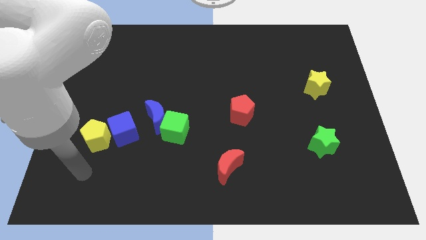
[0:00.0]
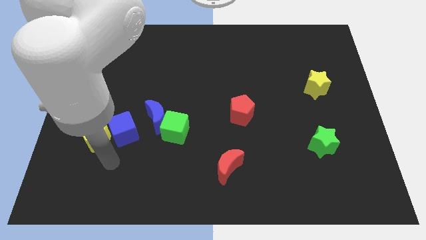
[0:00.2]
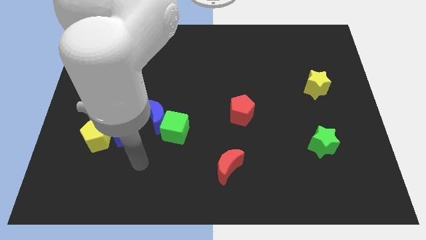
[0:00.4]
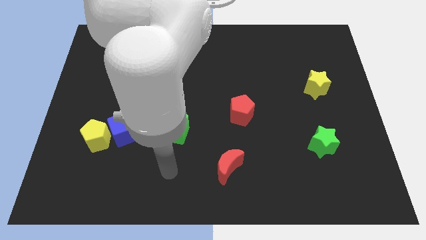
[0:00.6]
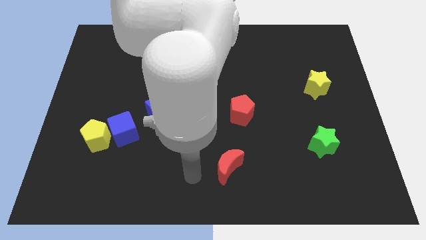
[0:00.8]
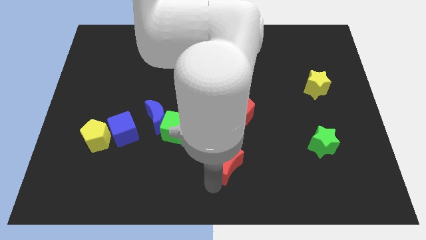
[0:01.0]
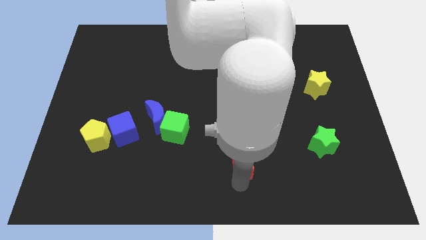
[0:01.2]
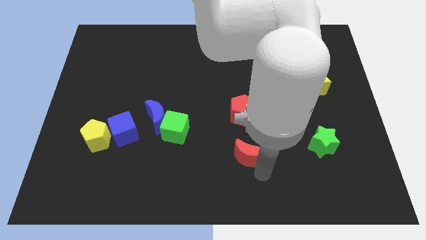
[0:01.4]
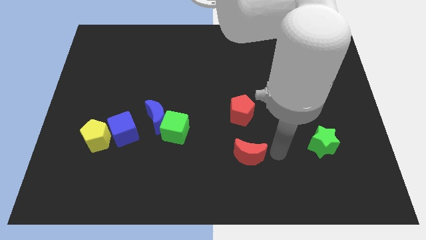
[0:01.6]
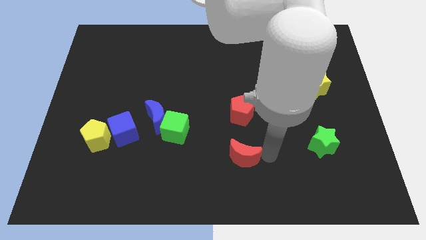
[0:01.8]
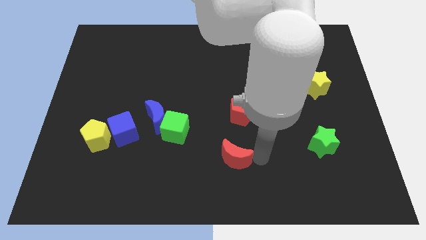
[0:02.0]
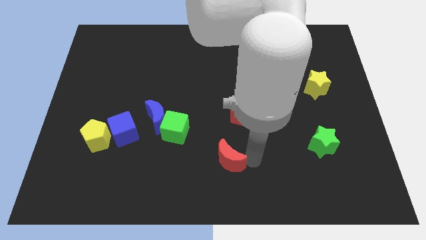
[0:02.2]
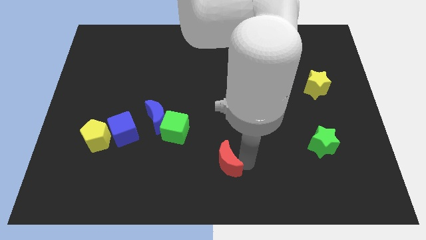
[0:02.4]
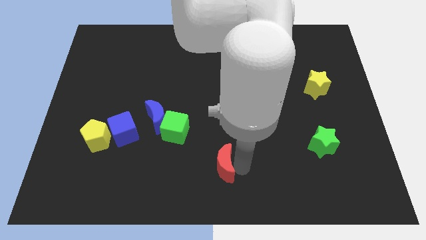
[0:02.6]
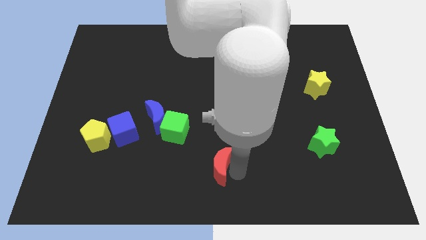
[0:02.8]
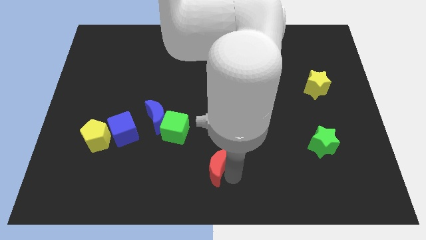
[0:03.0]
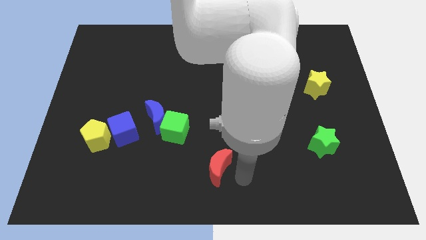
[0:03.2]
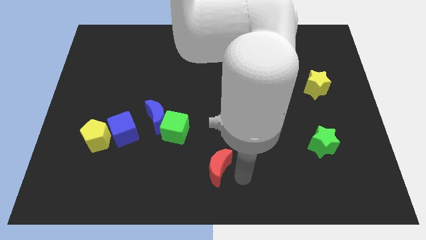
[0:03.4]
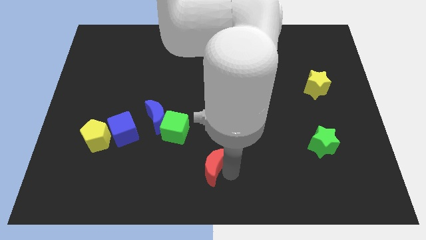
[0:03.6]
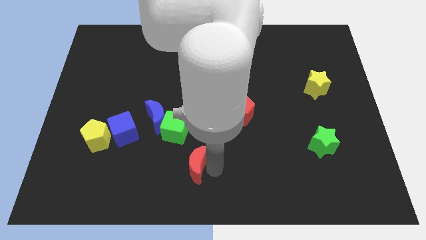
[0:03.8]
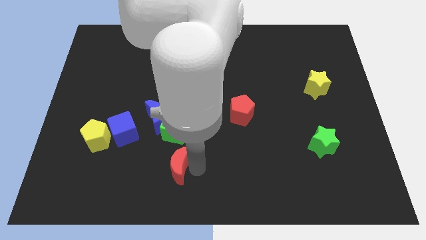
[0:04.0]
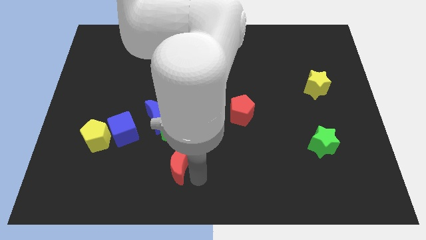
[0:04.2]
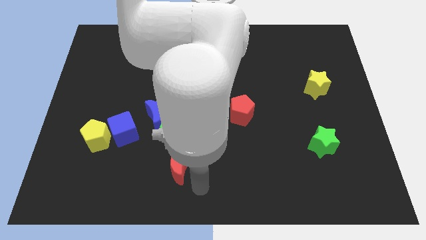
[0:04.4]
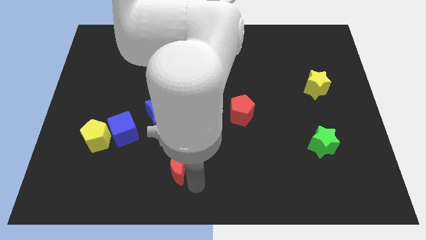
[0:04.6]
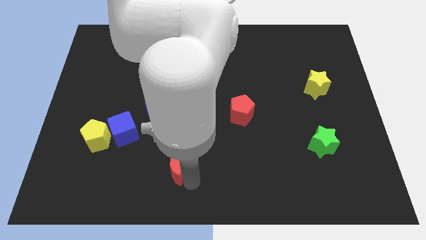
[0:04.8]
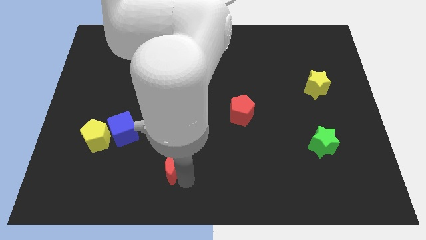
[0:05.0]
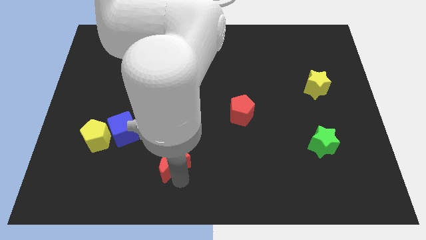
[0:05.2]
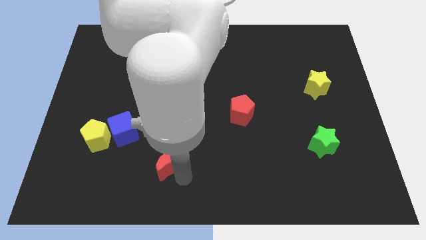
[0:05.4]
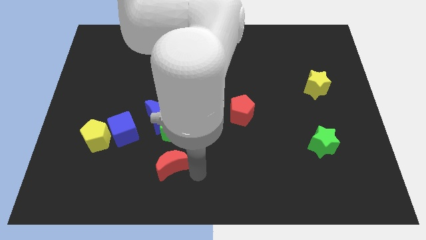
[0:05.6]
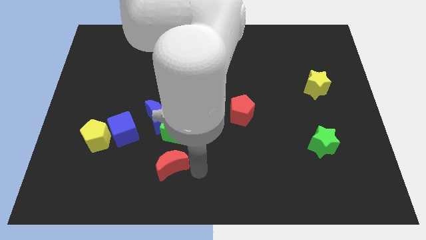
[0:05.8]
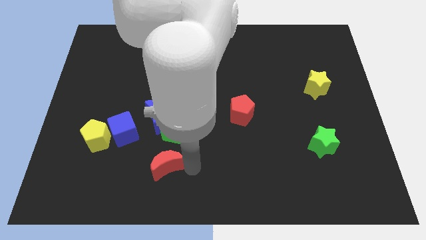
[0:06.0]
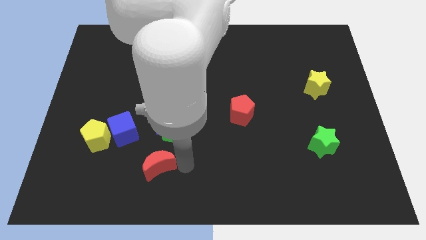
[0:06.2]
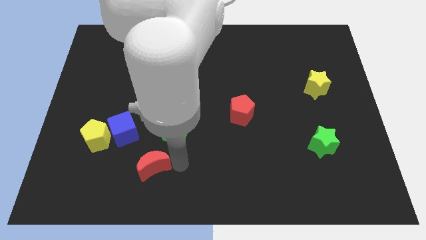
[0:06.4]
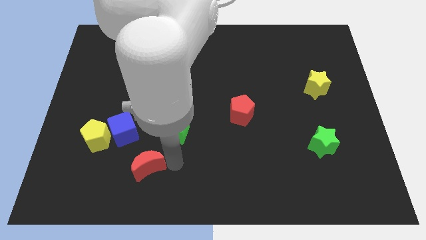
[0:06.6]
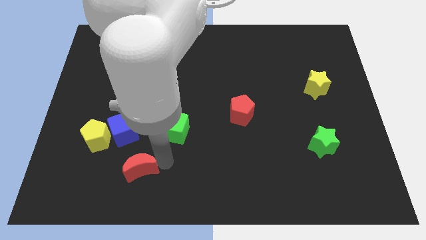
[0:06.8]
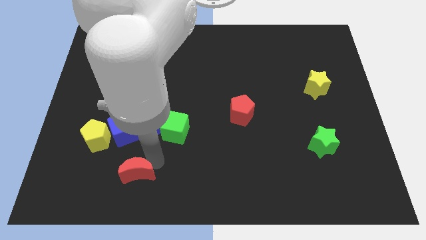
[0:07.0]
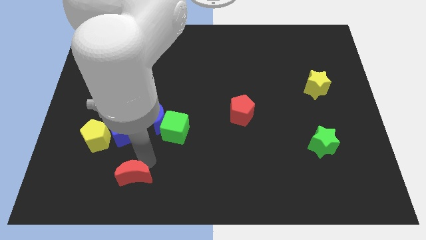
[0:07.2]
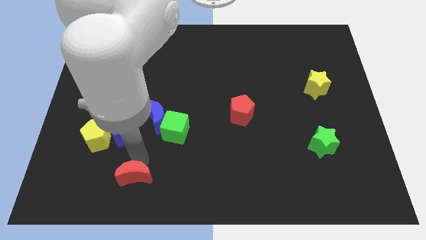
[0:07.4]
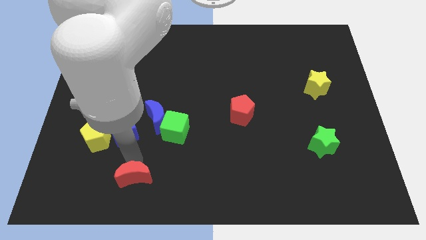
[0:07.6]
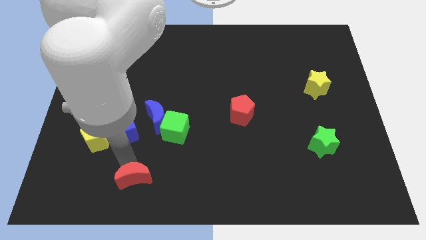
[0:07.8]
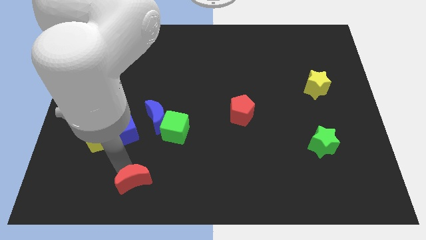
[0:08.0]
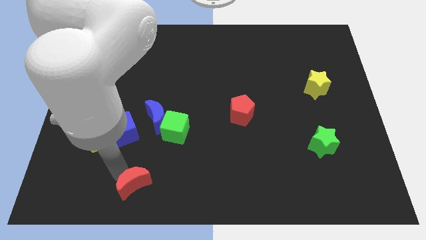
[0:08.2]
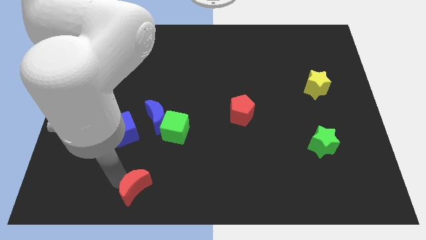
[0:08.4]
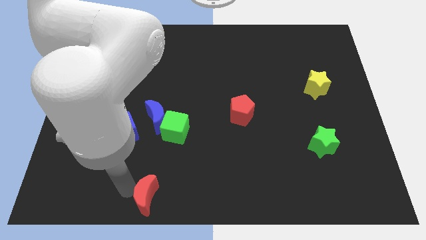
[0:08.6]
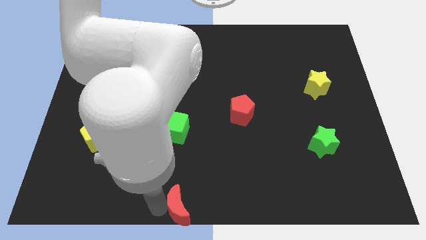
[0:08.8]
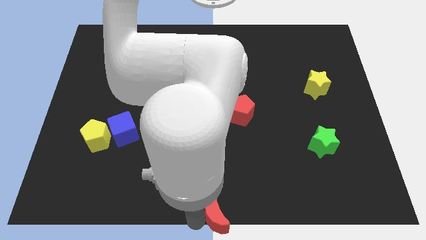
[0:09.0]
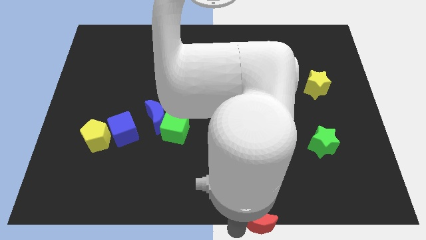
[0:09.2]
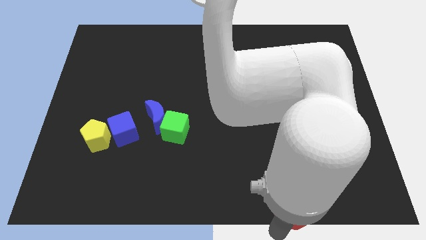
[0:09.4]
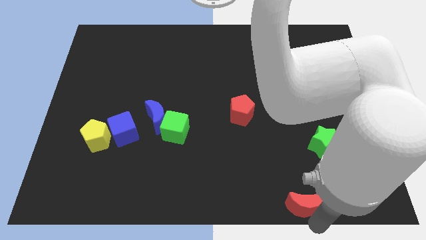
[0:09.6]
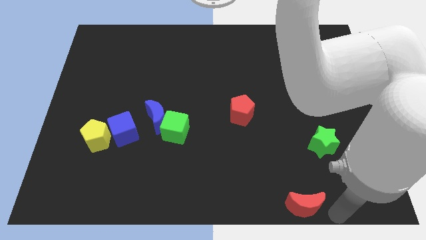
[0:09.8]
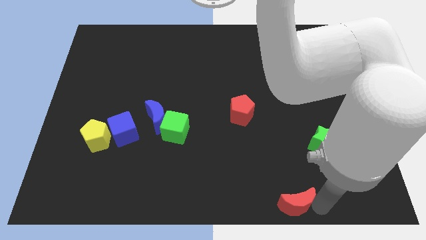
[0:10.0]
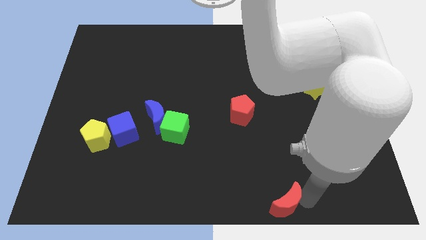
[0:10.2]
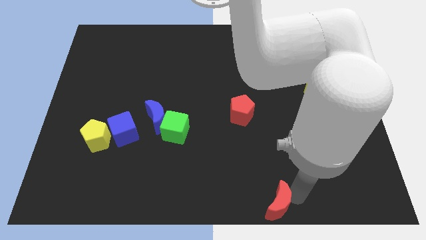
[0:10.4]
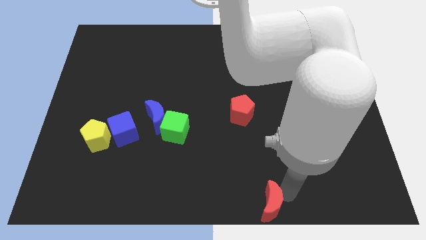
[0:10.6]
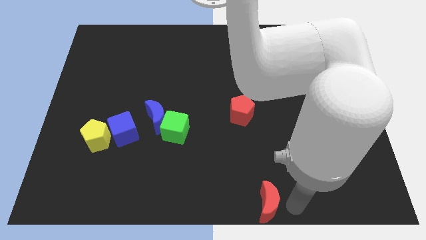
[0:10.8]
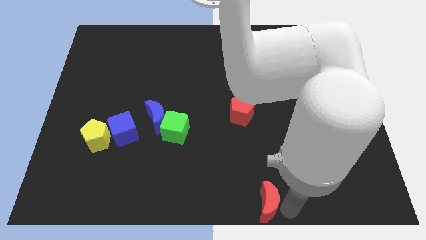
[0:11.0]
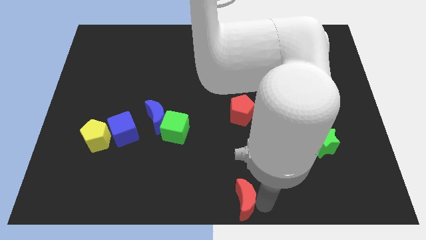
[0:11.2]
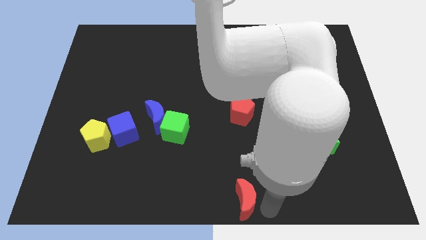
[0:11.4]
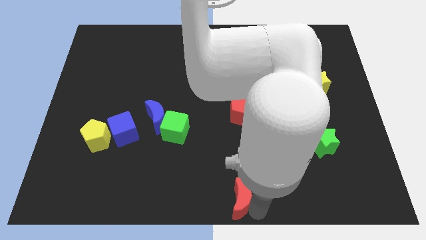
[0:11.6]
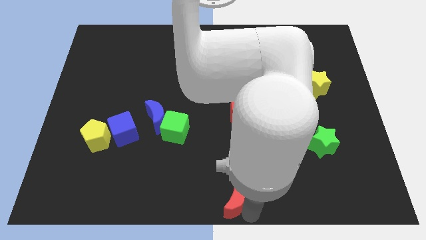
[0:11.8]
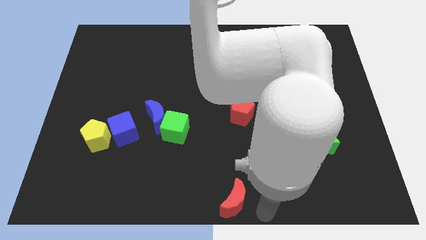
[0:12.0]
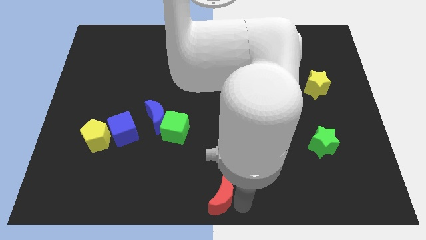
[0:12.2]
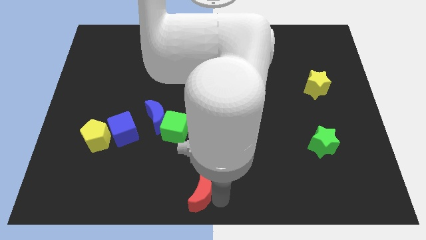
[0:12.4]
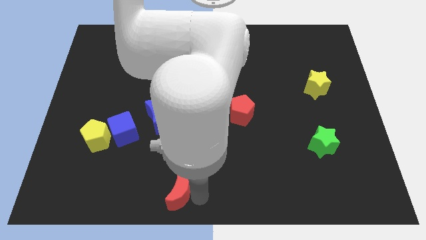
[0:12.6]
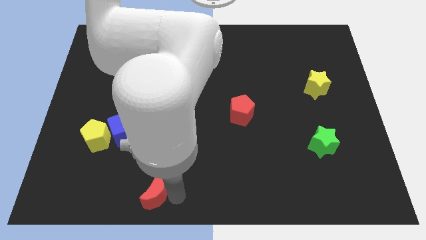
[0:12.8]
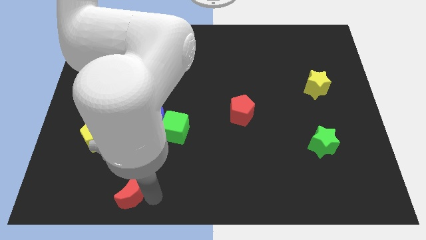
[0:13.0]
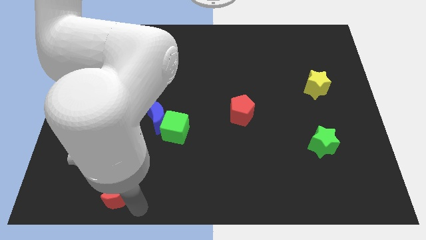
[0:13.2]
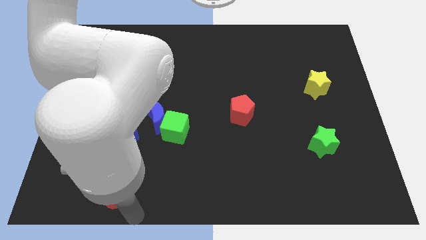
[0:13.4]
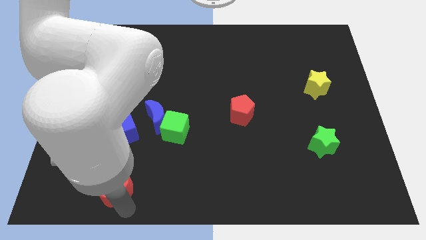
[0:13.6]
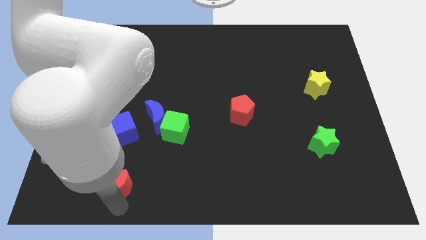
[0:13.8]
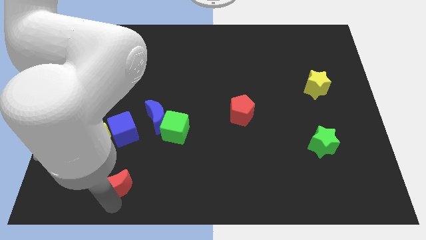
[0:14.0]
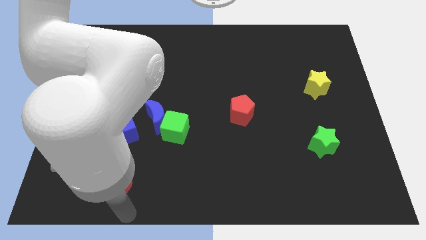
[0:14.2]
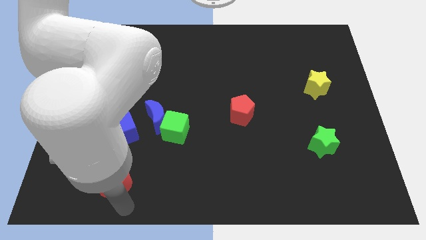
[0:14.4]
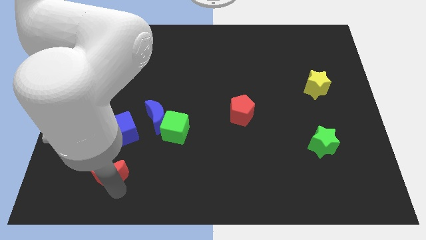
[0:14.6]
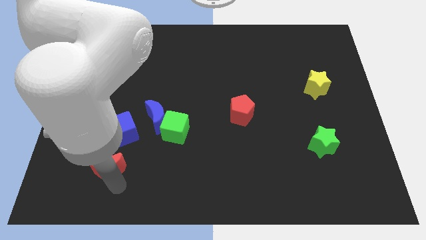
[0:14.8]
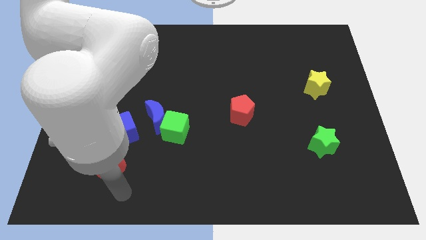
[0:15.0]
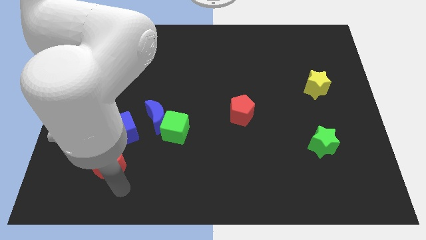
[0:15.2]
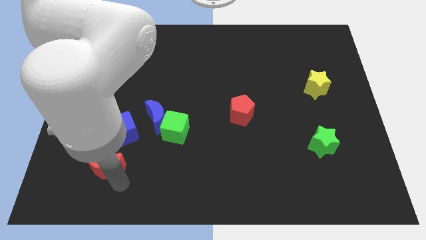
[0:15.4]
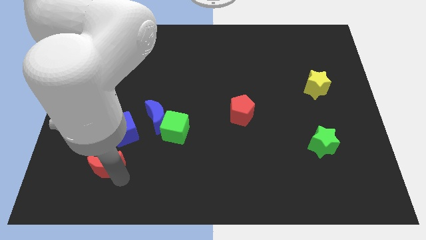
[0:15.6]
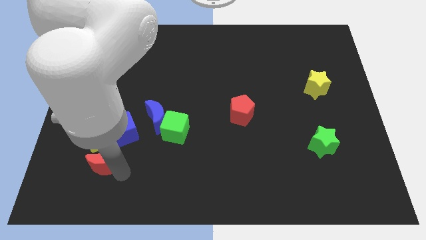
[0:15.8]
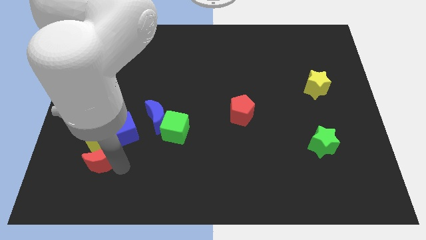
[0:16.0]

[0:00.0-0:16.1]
put the red moon close to the yellow pentagon
